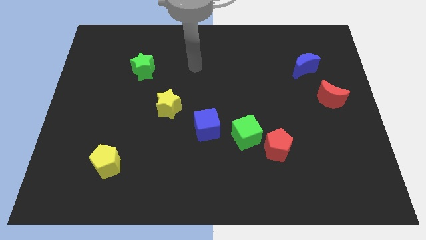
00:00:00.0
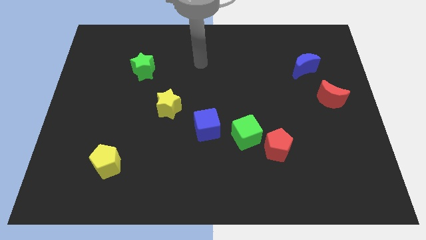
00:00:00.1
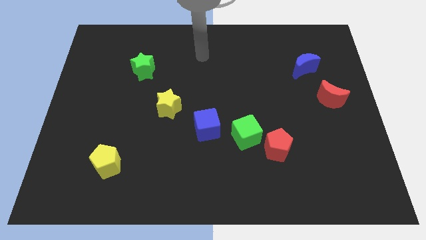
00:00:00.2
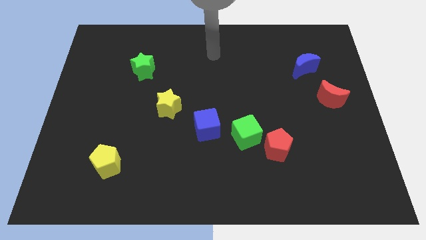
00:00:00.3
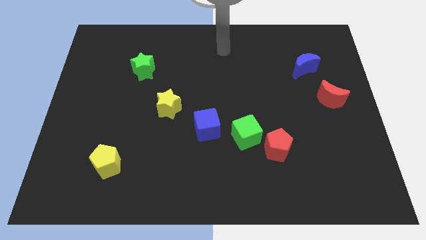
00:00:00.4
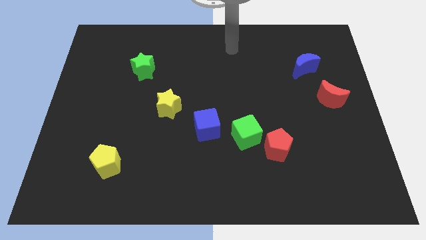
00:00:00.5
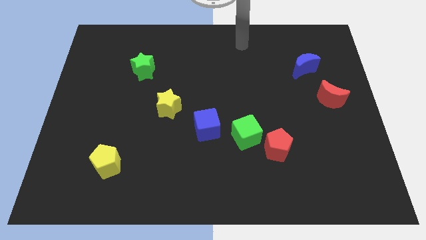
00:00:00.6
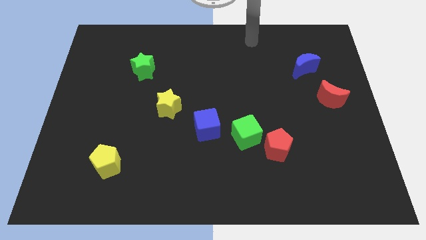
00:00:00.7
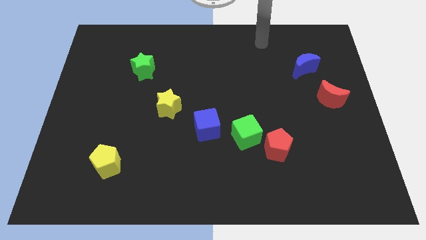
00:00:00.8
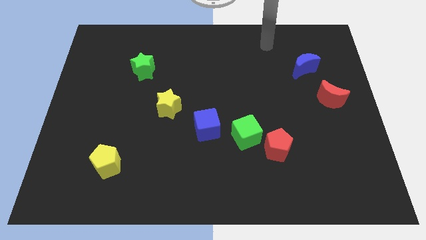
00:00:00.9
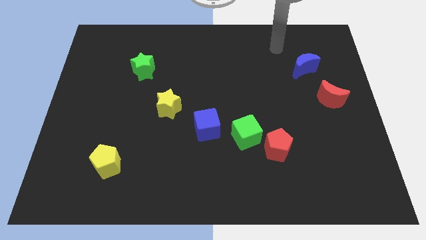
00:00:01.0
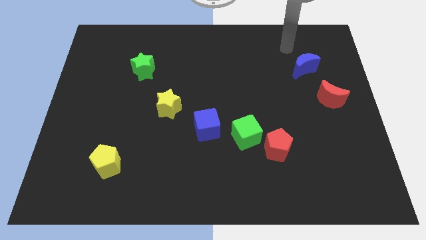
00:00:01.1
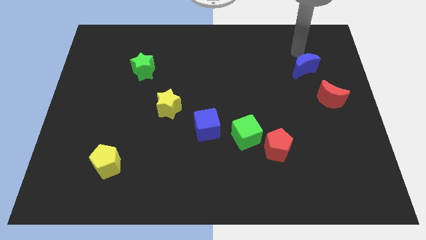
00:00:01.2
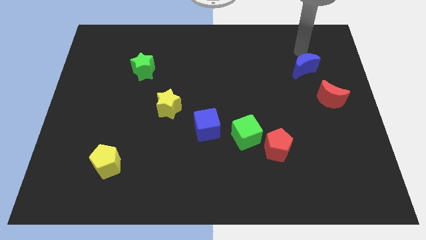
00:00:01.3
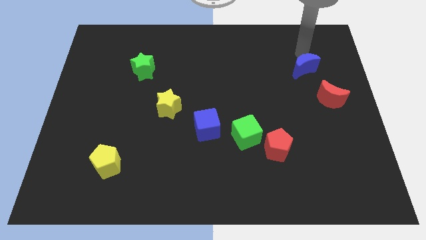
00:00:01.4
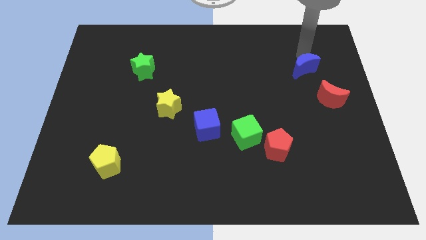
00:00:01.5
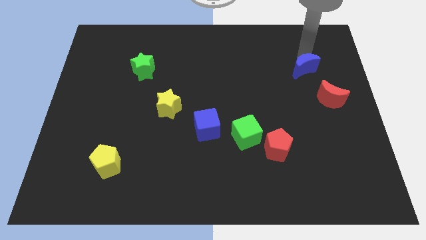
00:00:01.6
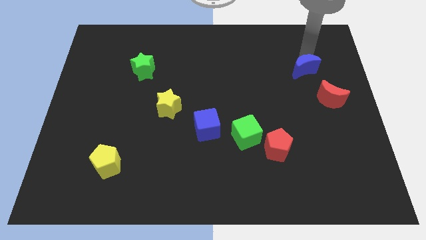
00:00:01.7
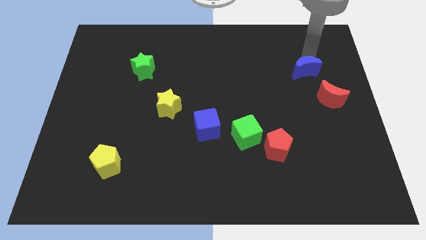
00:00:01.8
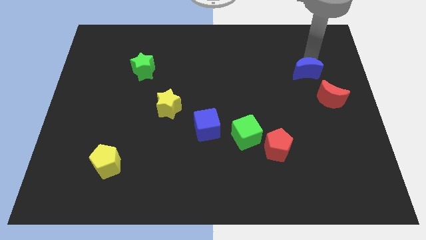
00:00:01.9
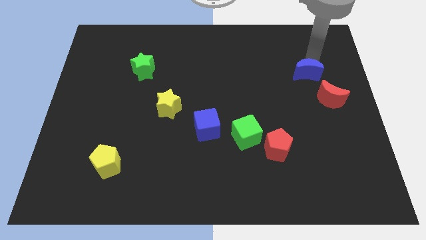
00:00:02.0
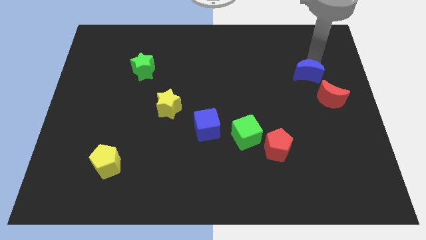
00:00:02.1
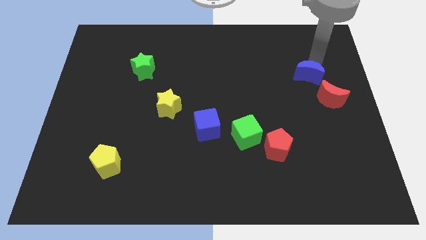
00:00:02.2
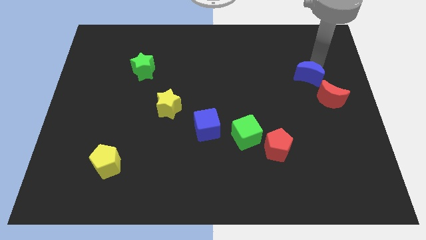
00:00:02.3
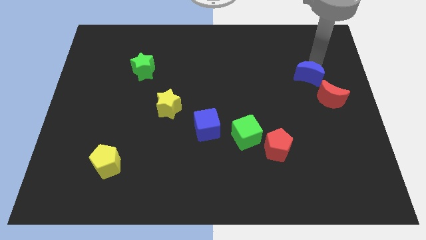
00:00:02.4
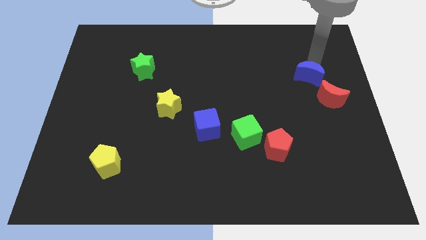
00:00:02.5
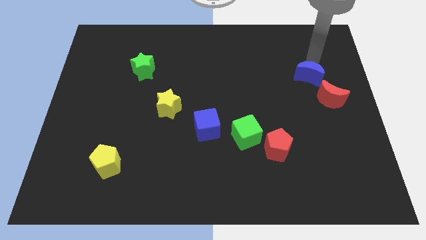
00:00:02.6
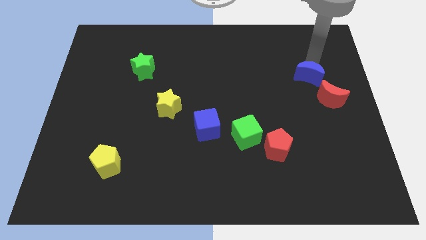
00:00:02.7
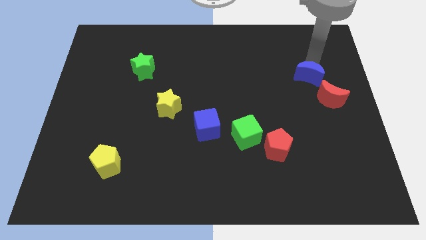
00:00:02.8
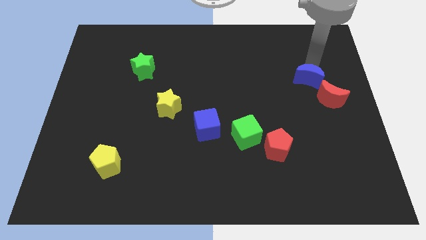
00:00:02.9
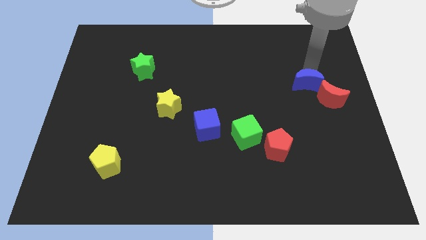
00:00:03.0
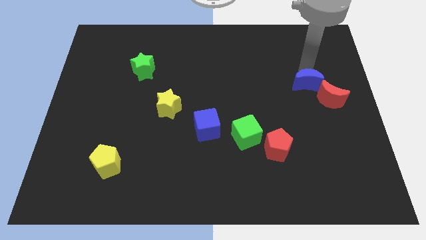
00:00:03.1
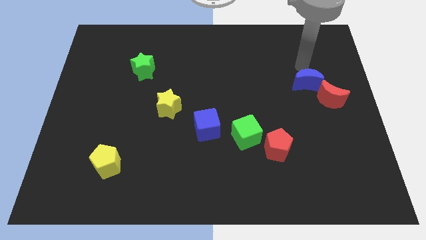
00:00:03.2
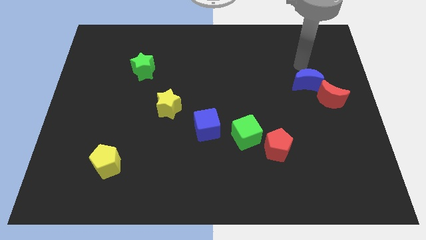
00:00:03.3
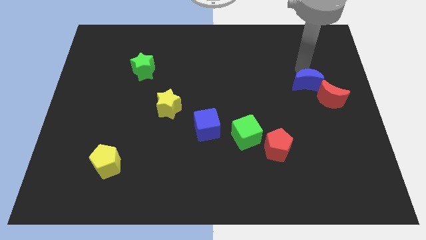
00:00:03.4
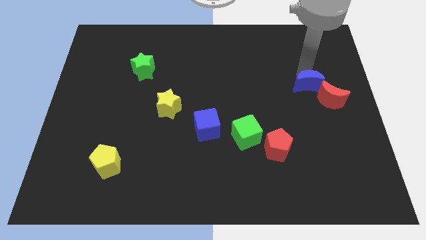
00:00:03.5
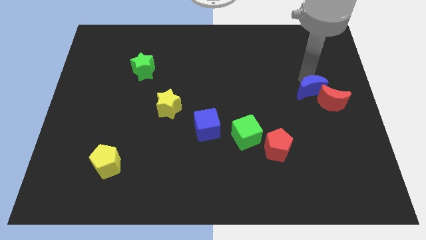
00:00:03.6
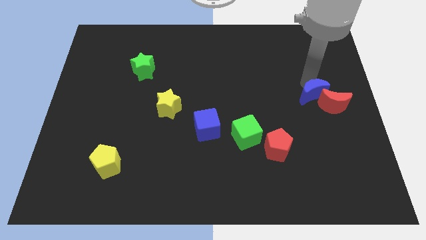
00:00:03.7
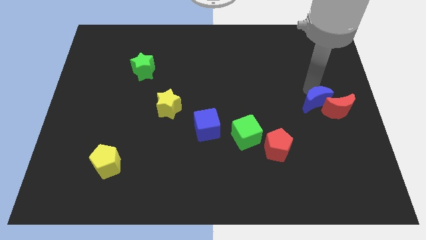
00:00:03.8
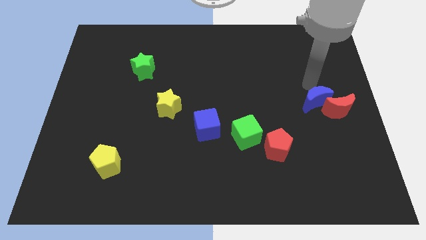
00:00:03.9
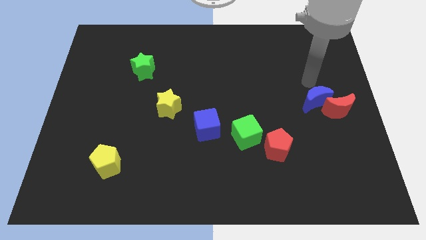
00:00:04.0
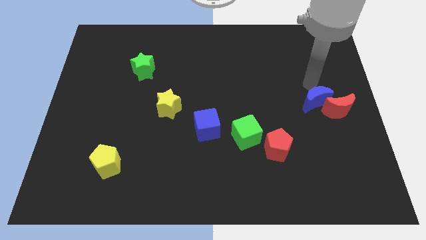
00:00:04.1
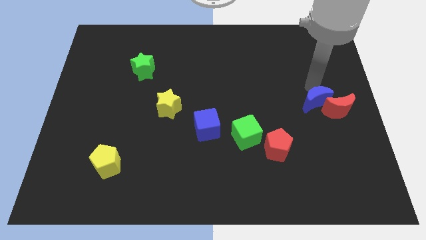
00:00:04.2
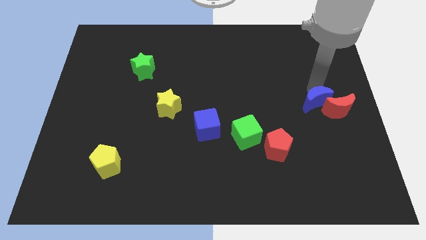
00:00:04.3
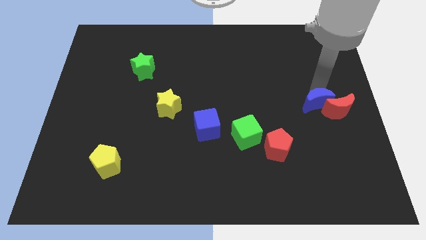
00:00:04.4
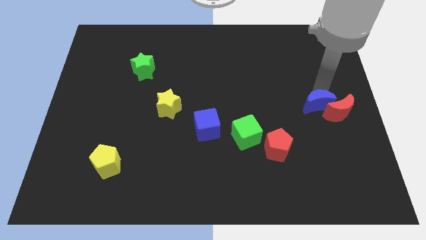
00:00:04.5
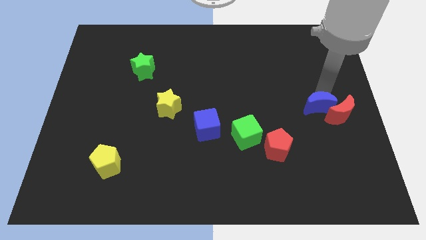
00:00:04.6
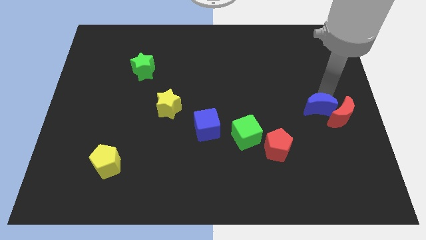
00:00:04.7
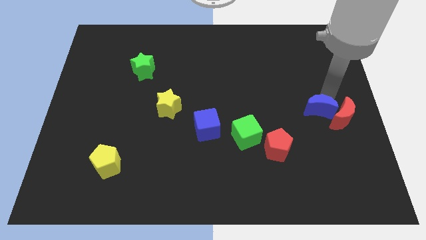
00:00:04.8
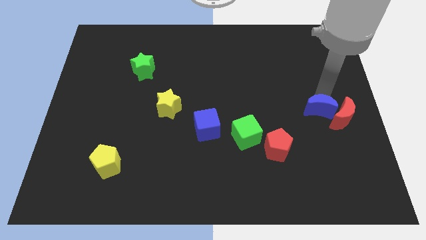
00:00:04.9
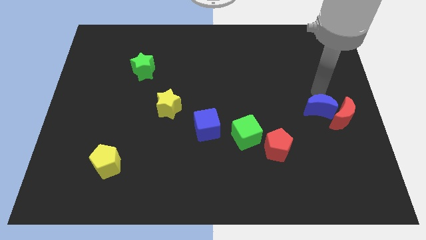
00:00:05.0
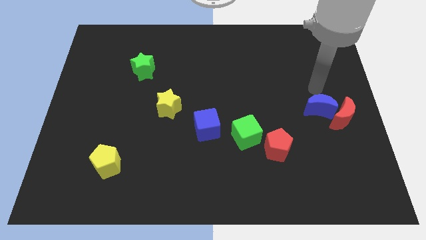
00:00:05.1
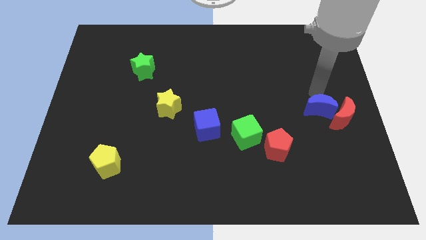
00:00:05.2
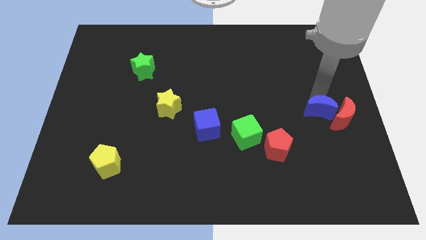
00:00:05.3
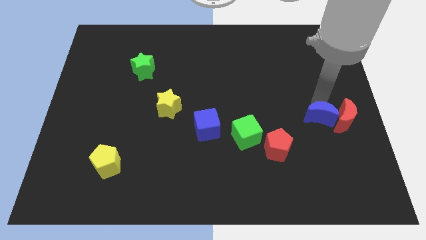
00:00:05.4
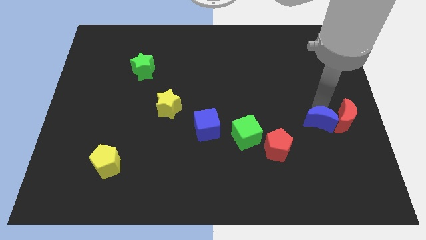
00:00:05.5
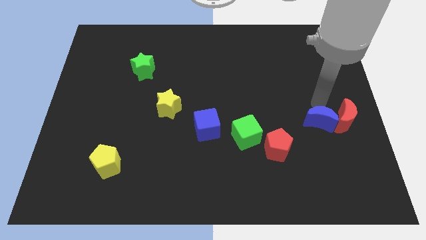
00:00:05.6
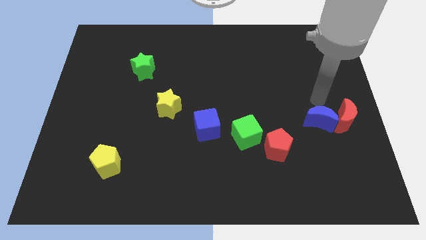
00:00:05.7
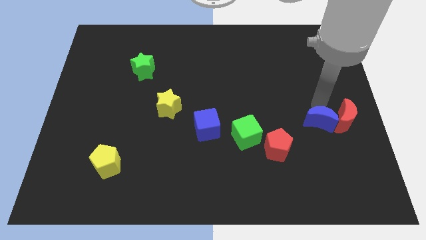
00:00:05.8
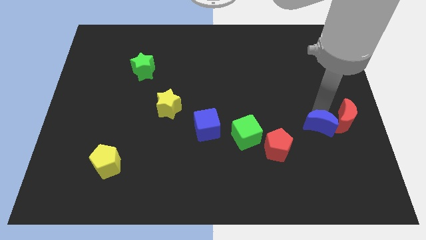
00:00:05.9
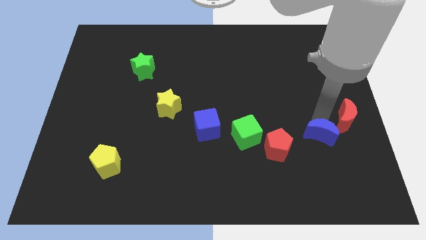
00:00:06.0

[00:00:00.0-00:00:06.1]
push the blue moon downwards

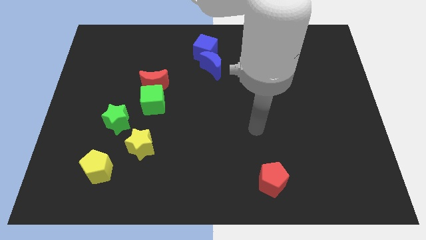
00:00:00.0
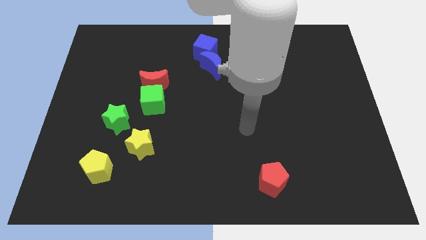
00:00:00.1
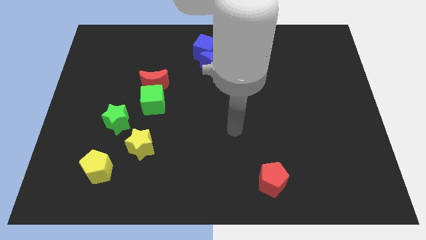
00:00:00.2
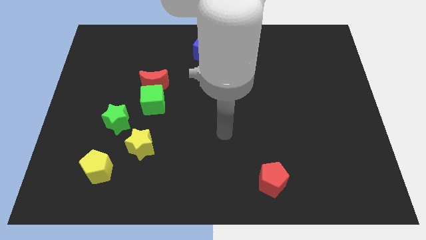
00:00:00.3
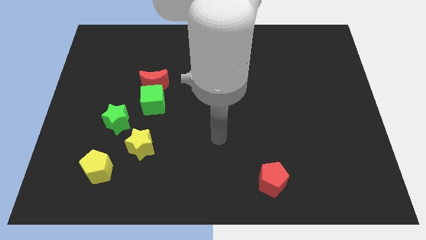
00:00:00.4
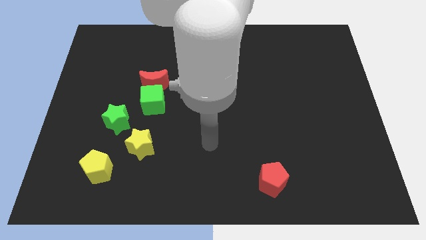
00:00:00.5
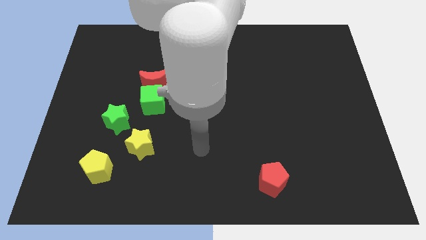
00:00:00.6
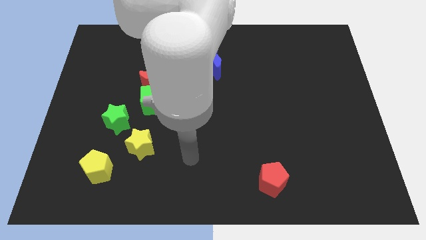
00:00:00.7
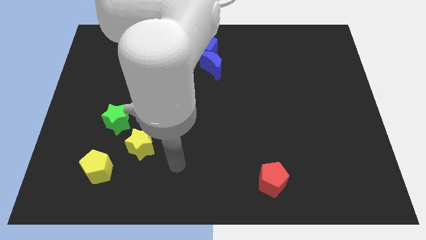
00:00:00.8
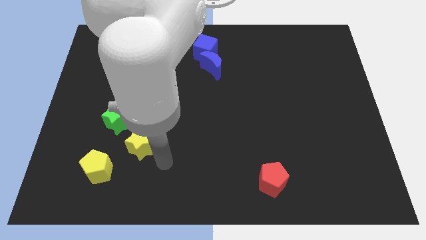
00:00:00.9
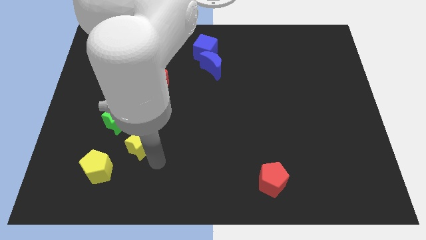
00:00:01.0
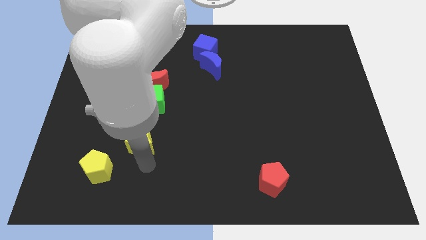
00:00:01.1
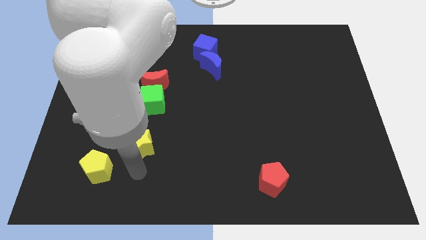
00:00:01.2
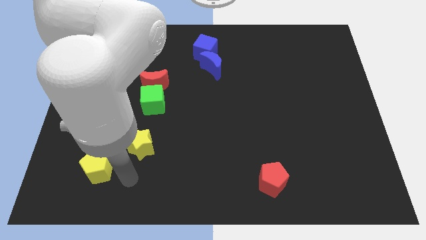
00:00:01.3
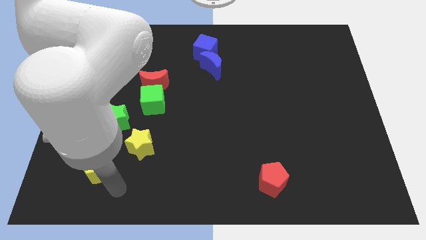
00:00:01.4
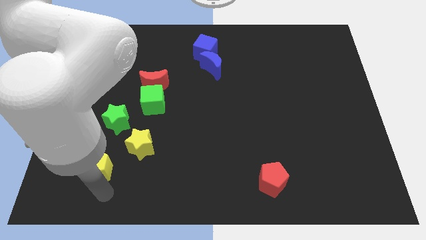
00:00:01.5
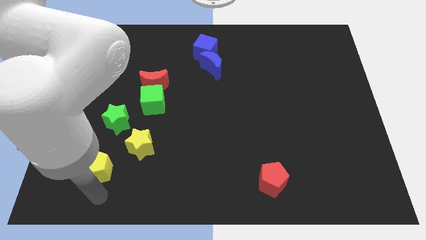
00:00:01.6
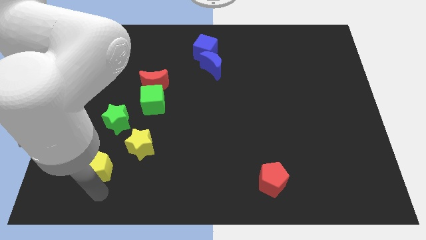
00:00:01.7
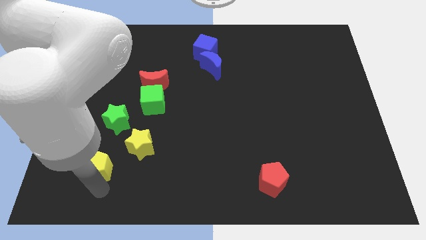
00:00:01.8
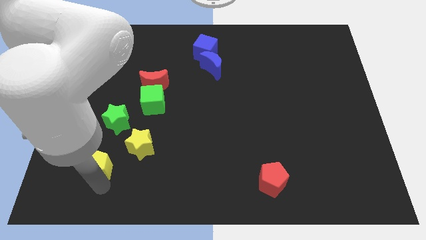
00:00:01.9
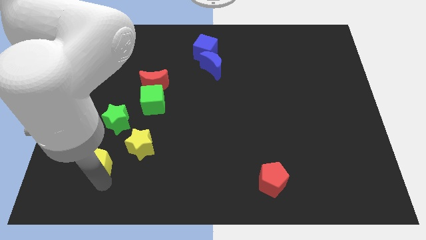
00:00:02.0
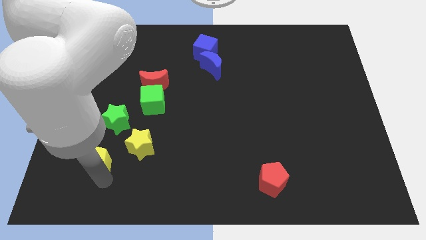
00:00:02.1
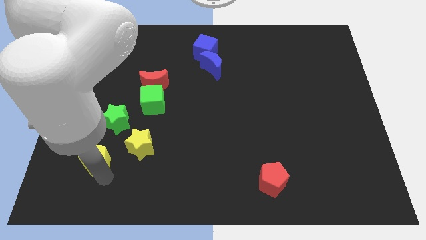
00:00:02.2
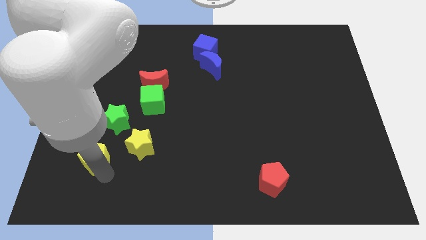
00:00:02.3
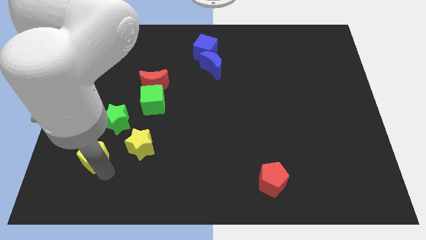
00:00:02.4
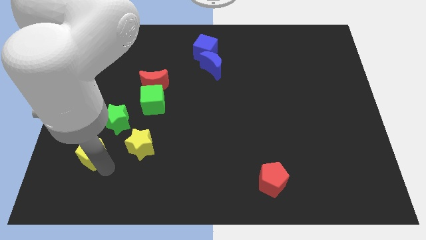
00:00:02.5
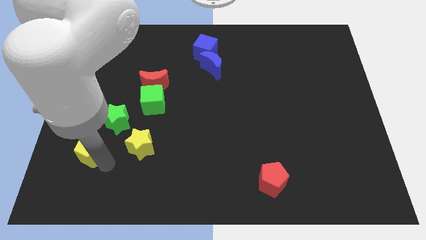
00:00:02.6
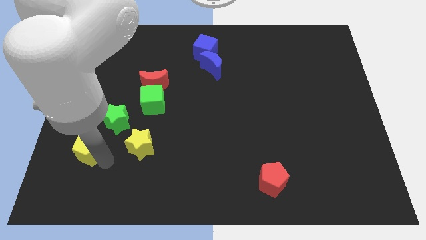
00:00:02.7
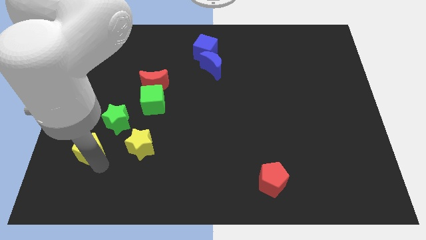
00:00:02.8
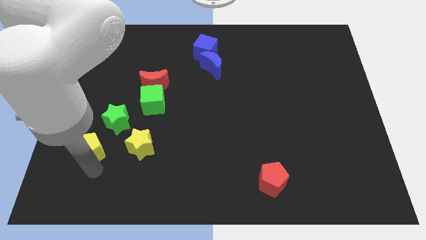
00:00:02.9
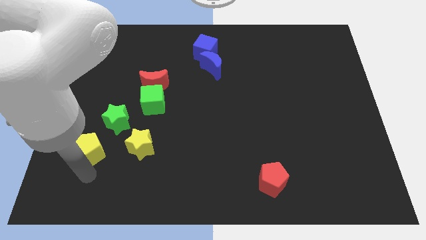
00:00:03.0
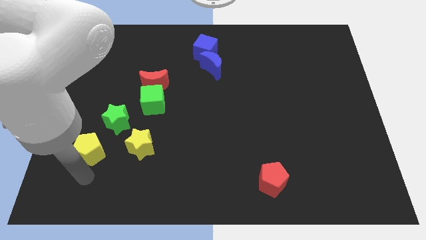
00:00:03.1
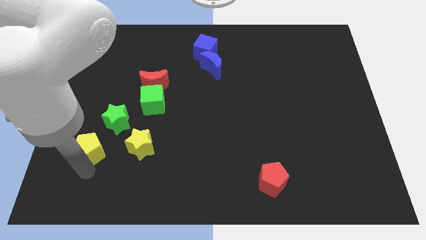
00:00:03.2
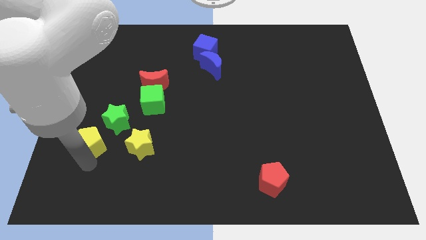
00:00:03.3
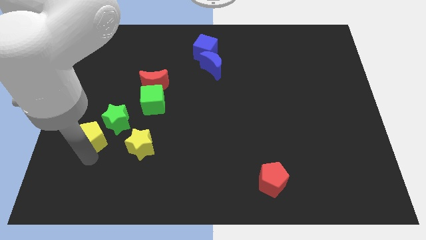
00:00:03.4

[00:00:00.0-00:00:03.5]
slightly push the yellow pentagon upwards
